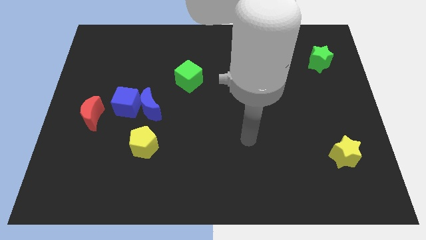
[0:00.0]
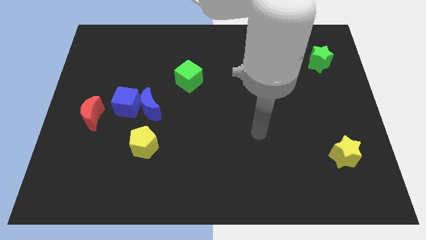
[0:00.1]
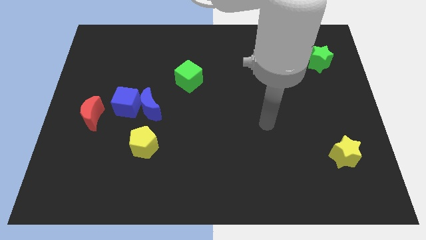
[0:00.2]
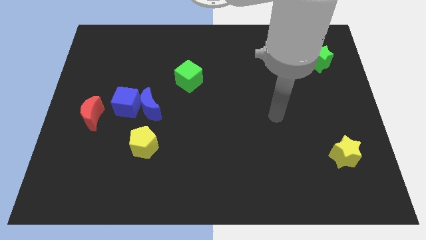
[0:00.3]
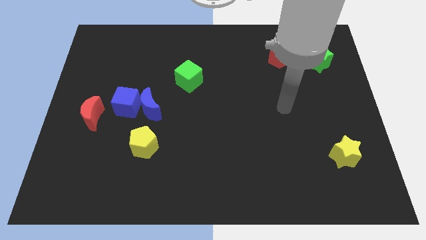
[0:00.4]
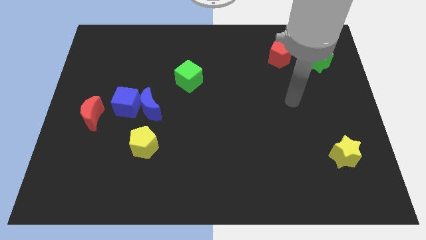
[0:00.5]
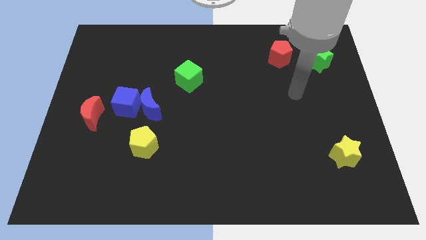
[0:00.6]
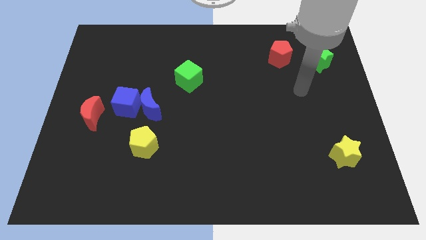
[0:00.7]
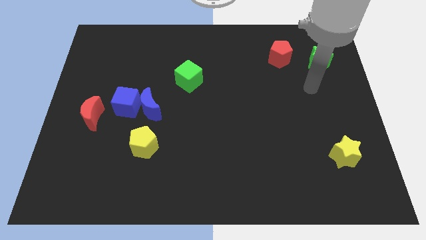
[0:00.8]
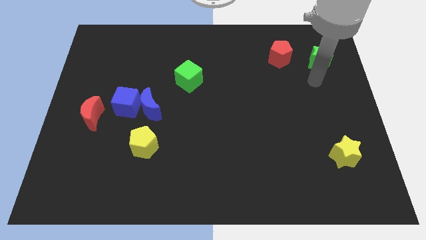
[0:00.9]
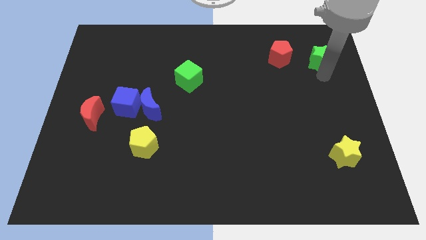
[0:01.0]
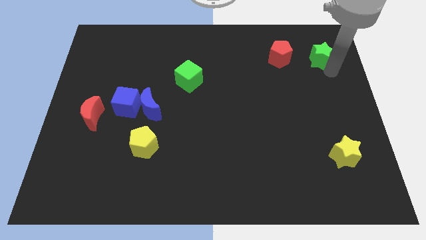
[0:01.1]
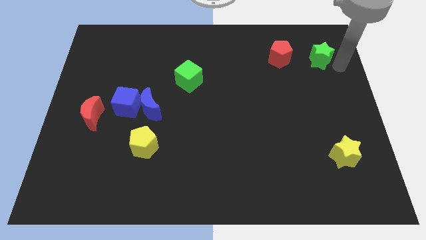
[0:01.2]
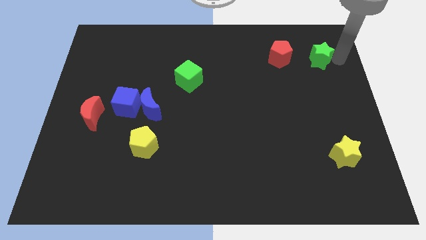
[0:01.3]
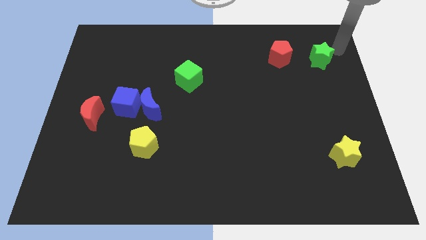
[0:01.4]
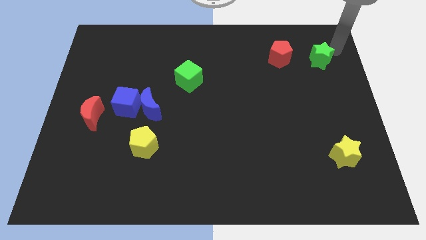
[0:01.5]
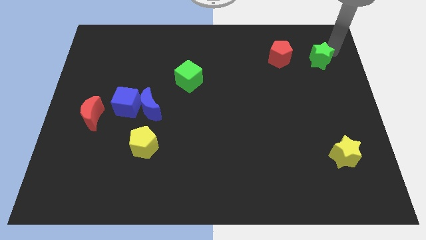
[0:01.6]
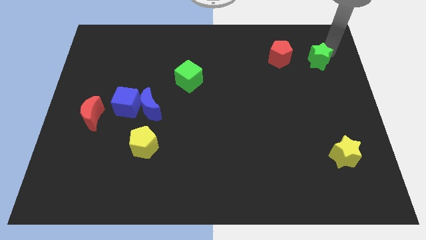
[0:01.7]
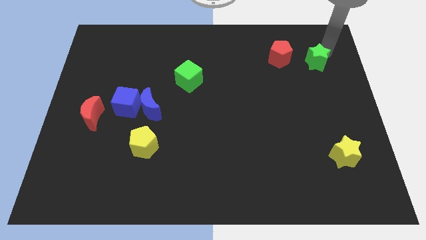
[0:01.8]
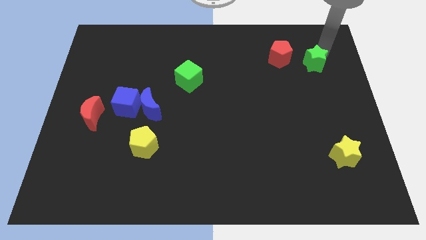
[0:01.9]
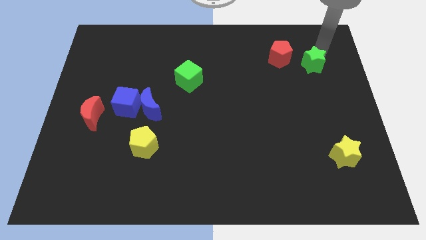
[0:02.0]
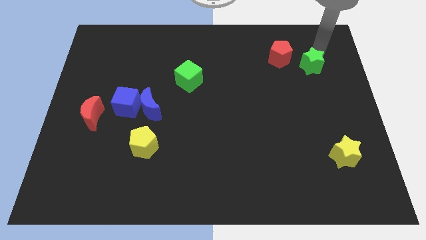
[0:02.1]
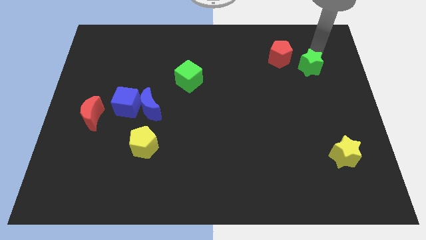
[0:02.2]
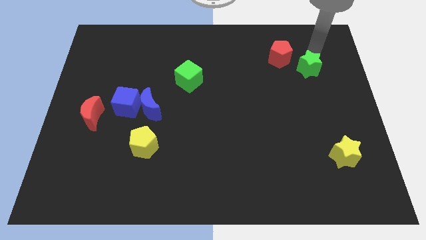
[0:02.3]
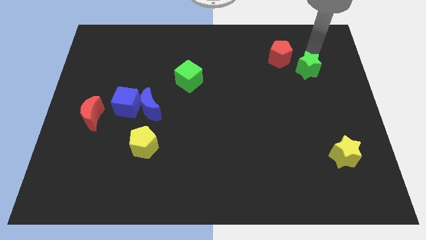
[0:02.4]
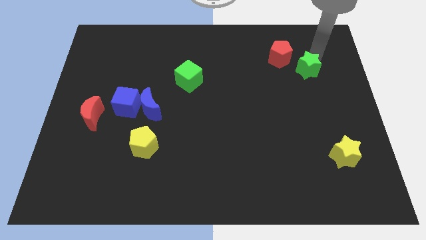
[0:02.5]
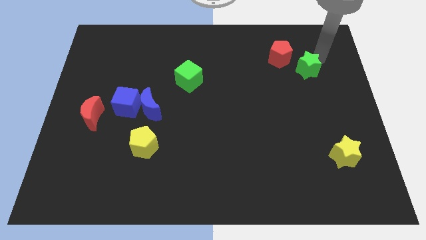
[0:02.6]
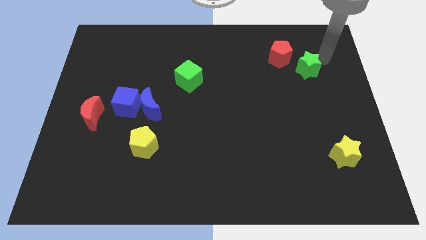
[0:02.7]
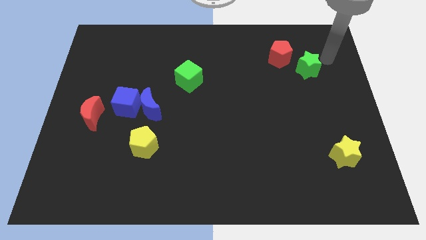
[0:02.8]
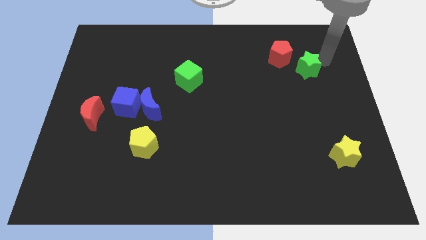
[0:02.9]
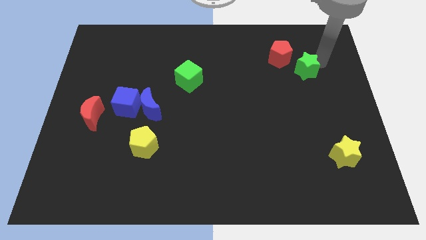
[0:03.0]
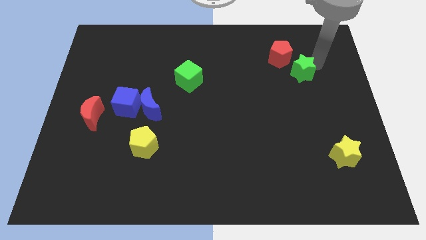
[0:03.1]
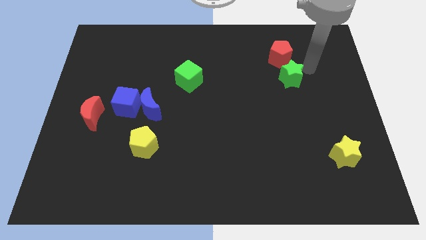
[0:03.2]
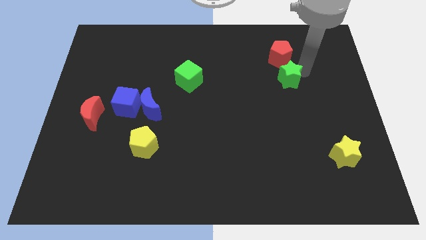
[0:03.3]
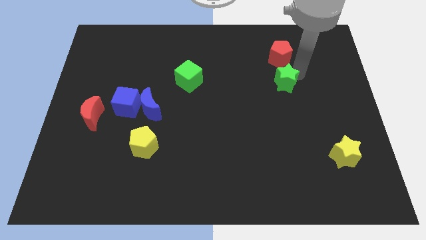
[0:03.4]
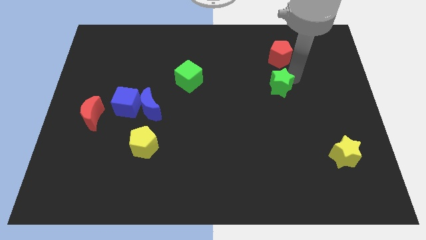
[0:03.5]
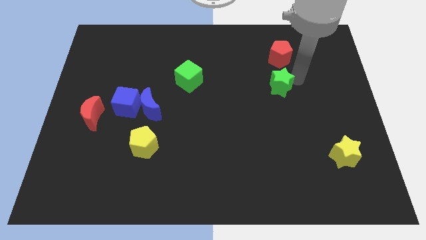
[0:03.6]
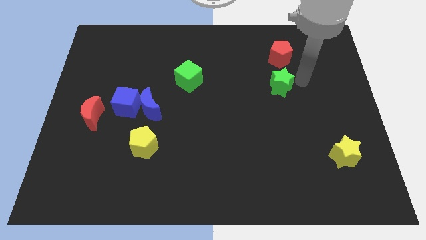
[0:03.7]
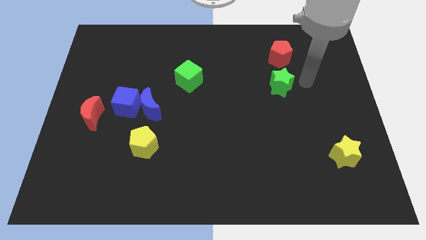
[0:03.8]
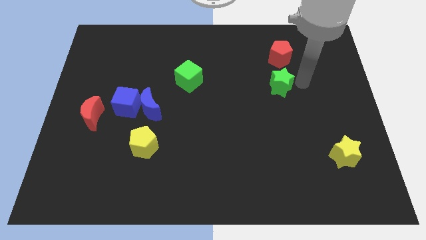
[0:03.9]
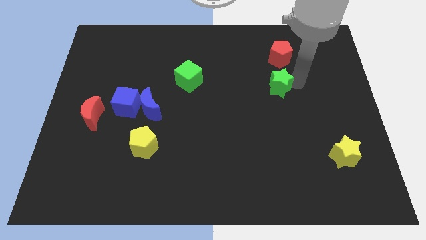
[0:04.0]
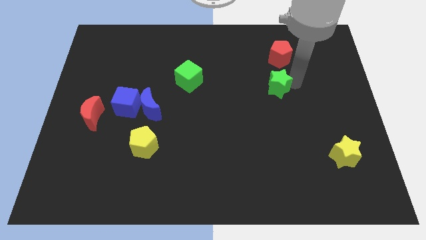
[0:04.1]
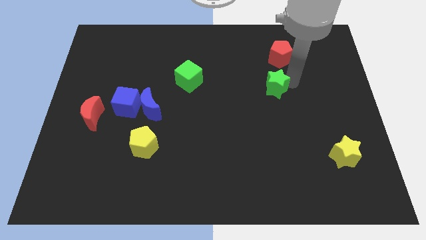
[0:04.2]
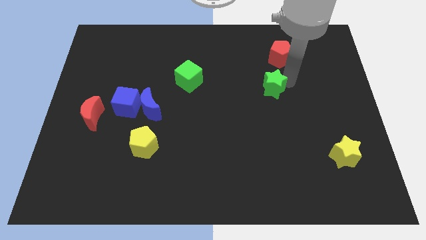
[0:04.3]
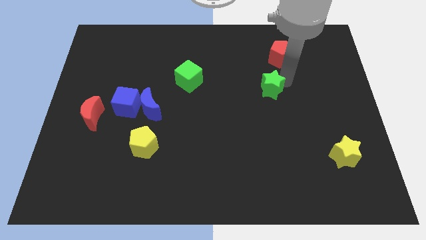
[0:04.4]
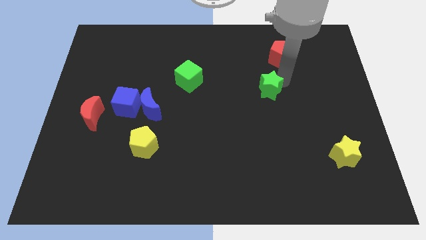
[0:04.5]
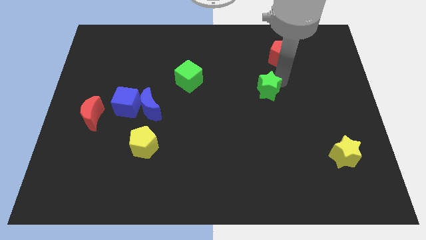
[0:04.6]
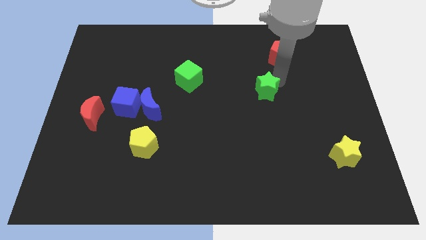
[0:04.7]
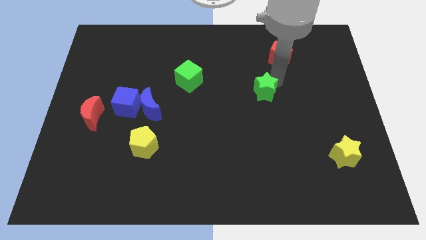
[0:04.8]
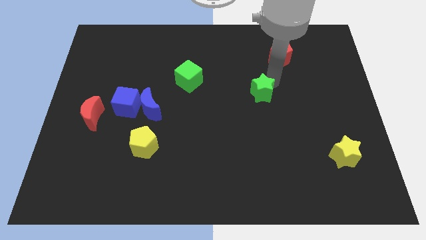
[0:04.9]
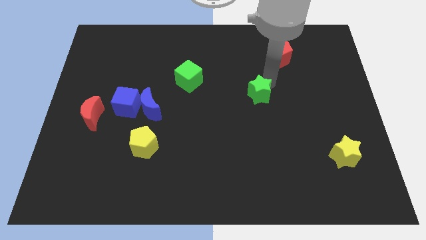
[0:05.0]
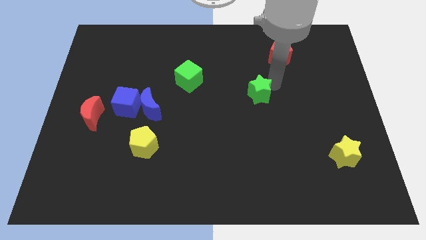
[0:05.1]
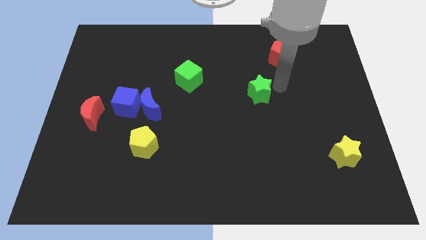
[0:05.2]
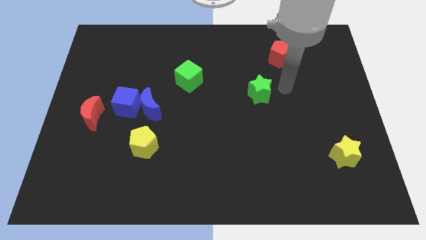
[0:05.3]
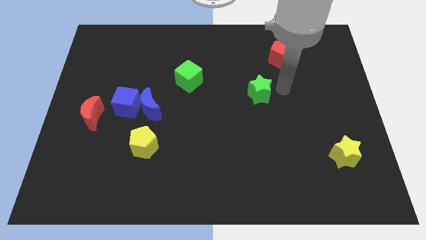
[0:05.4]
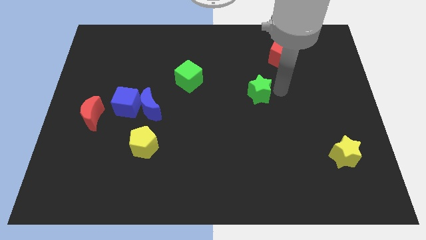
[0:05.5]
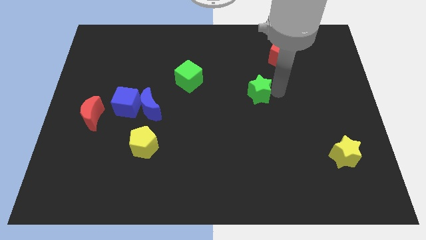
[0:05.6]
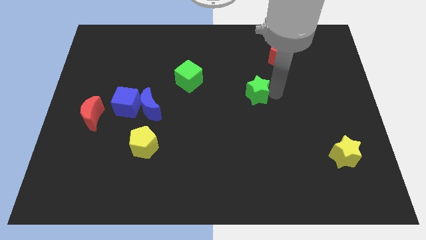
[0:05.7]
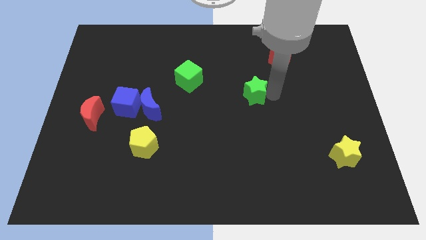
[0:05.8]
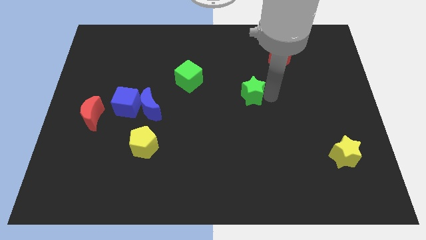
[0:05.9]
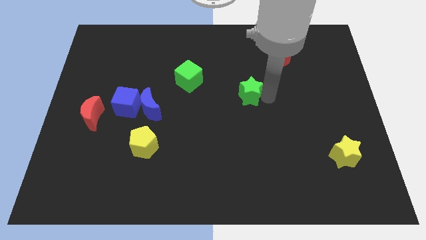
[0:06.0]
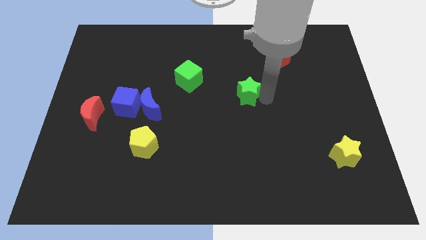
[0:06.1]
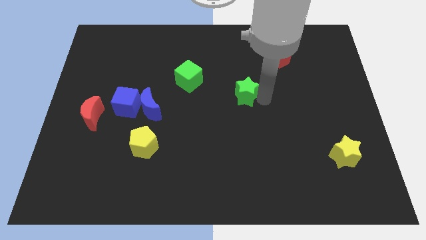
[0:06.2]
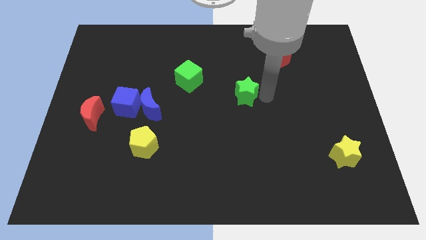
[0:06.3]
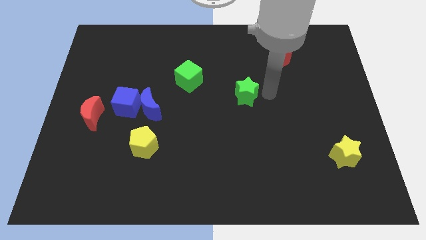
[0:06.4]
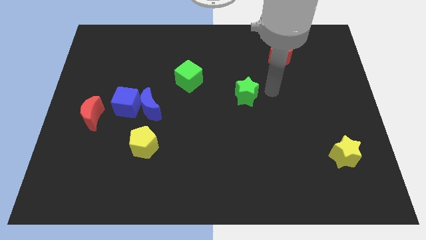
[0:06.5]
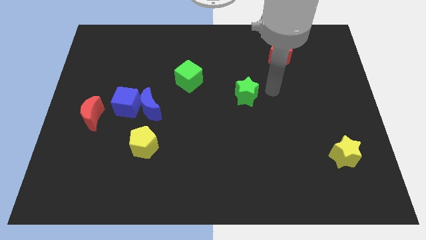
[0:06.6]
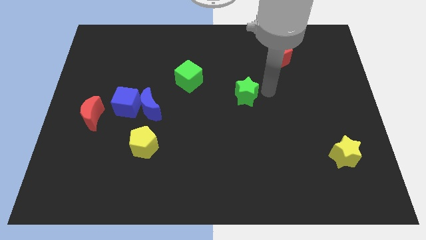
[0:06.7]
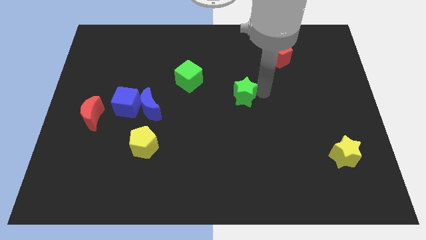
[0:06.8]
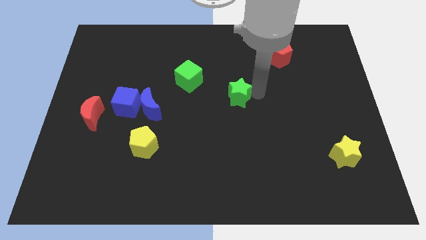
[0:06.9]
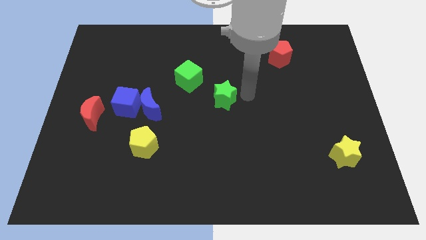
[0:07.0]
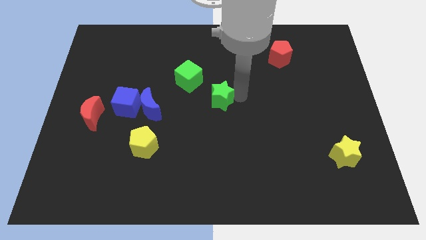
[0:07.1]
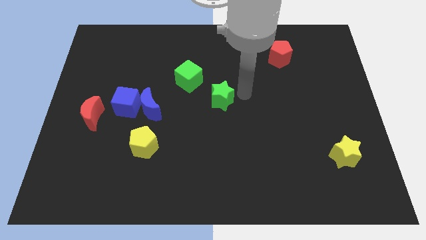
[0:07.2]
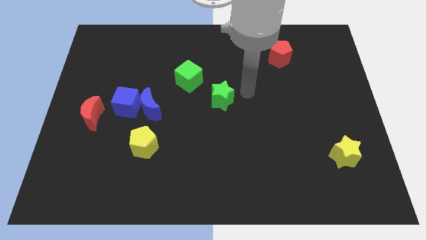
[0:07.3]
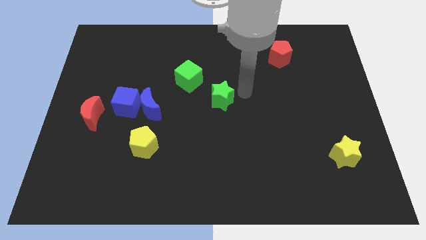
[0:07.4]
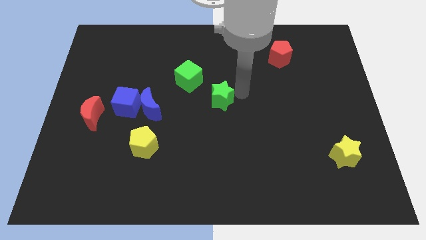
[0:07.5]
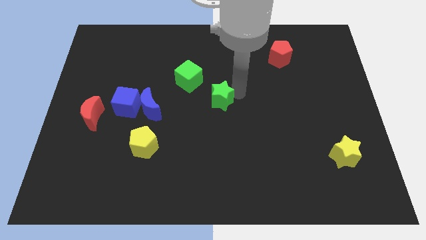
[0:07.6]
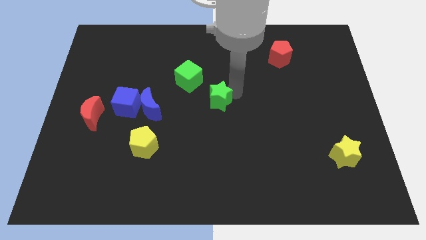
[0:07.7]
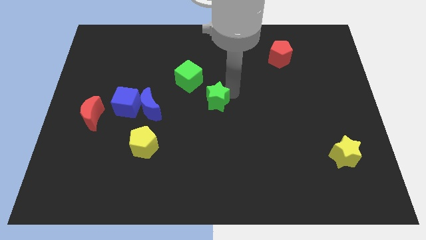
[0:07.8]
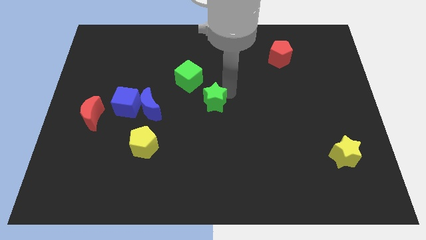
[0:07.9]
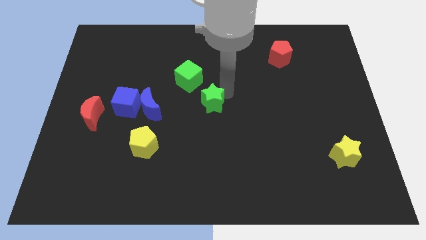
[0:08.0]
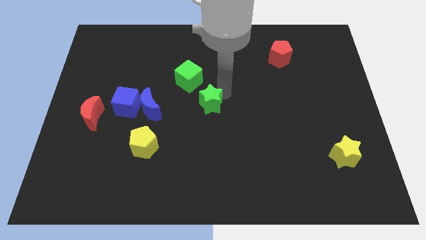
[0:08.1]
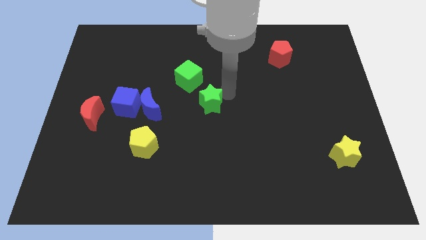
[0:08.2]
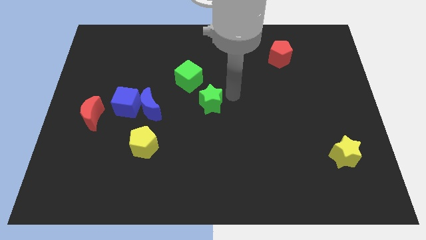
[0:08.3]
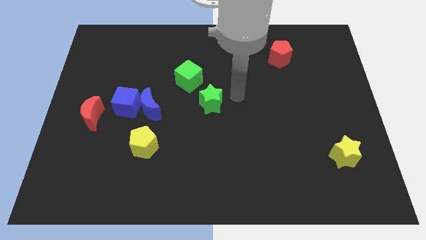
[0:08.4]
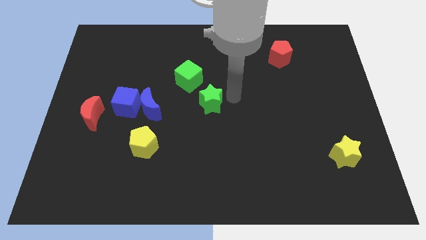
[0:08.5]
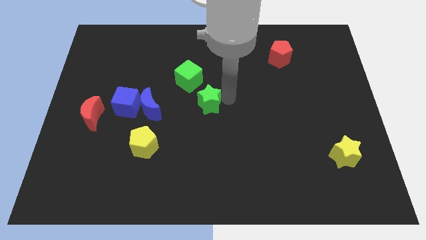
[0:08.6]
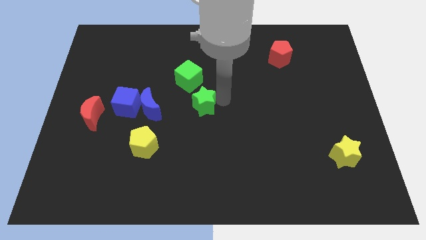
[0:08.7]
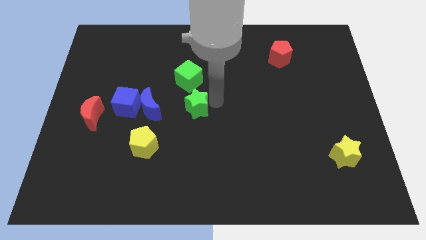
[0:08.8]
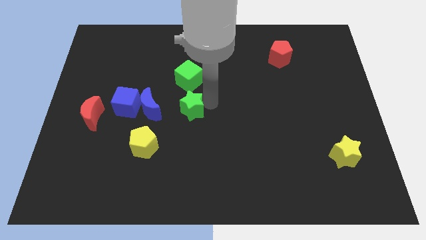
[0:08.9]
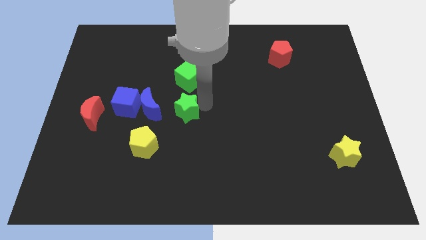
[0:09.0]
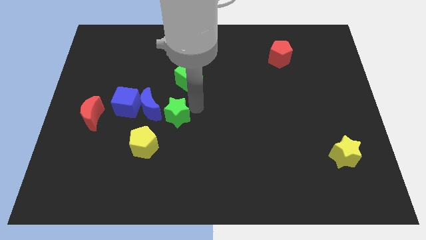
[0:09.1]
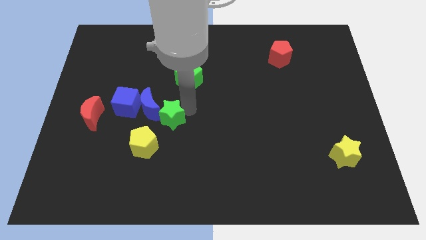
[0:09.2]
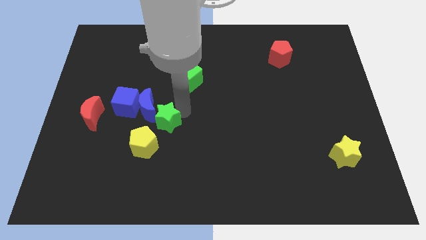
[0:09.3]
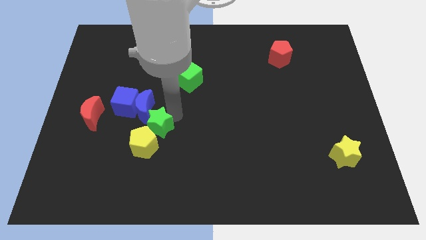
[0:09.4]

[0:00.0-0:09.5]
move the green star next to the yellow pentagon
